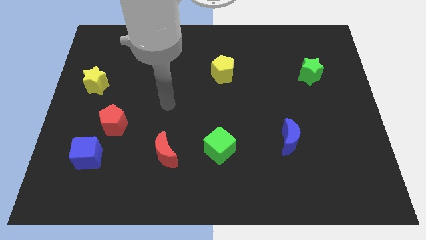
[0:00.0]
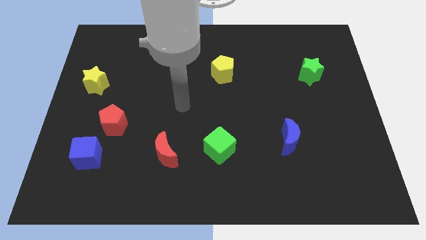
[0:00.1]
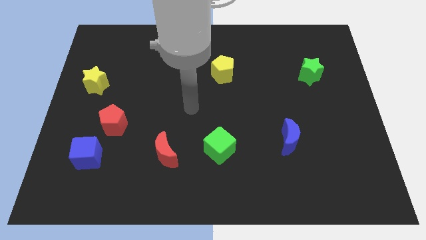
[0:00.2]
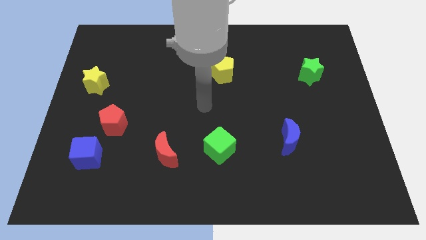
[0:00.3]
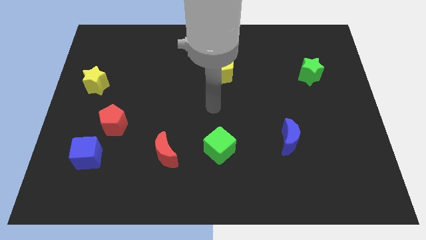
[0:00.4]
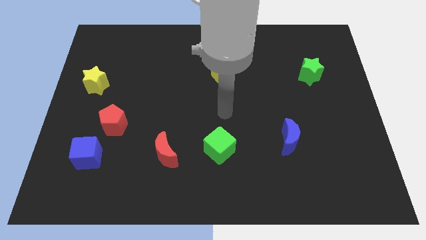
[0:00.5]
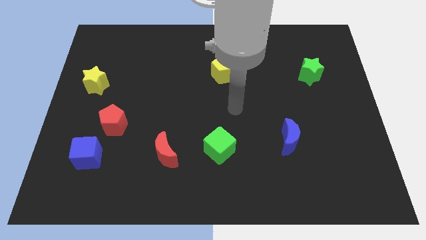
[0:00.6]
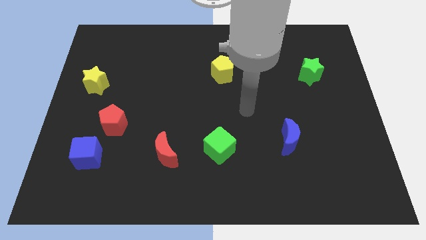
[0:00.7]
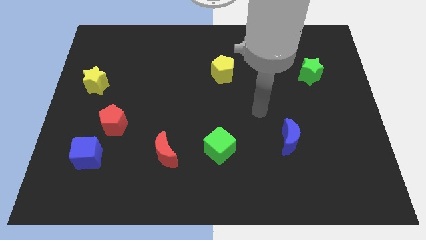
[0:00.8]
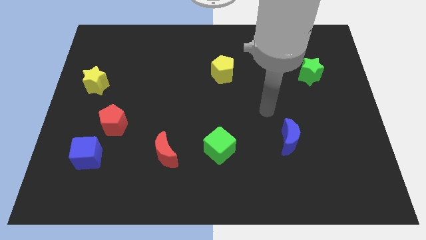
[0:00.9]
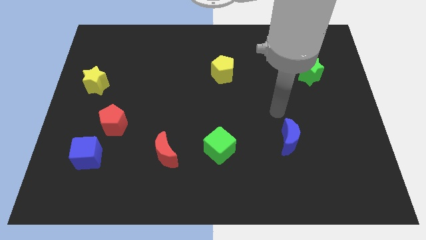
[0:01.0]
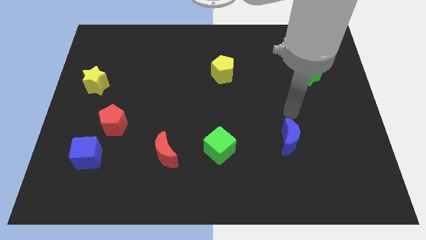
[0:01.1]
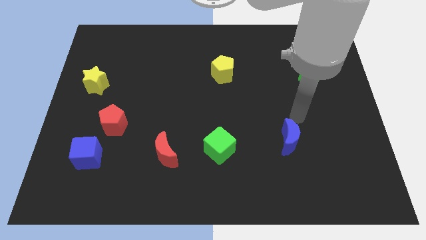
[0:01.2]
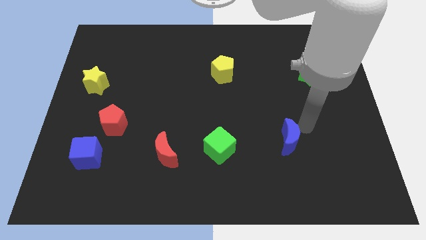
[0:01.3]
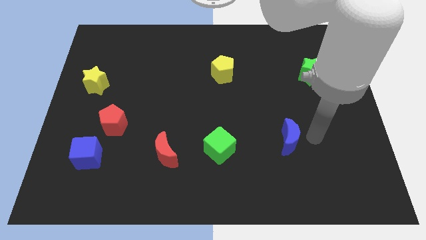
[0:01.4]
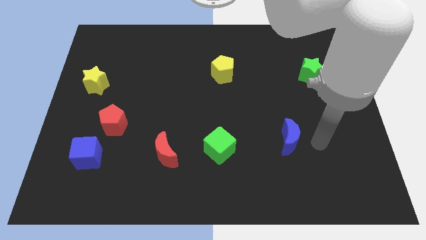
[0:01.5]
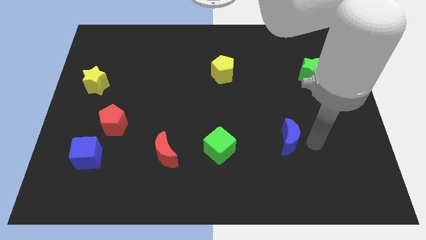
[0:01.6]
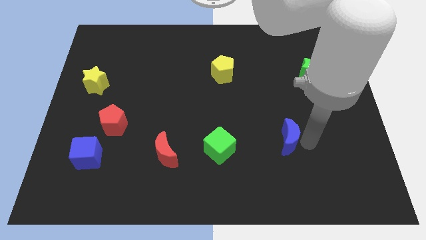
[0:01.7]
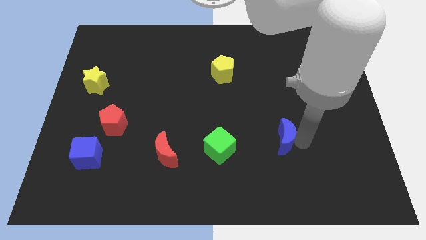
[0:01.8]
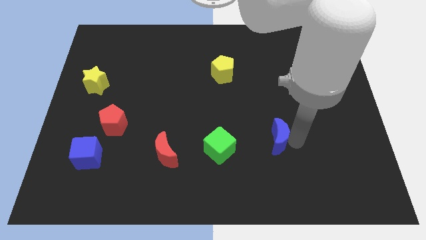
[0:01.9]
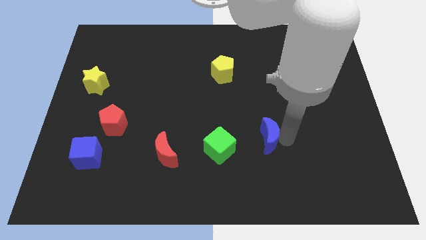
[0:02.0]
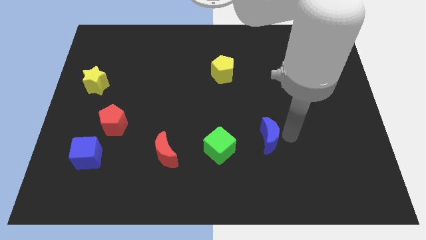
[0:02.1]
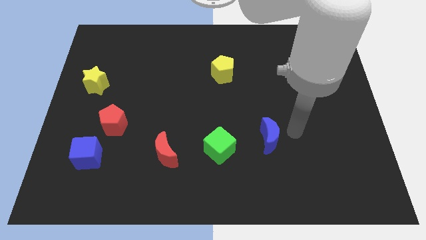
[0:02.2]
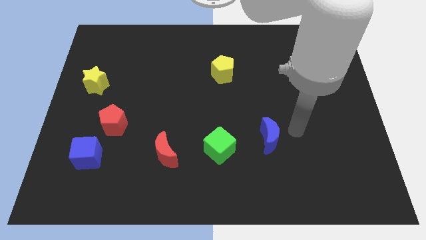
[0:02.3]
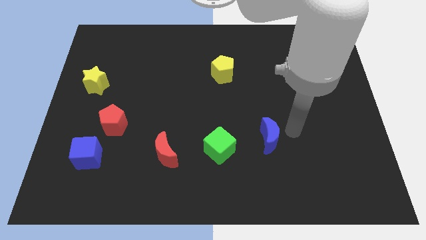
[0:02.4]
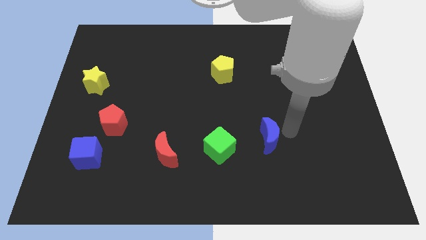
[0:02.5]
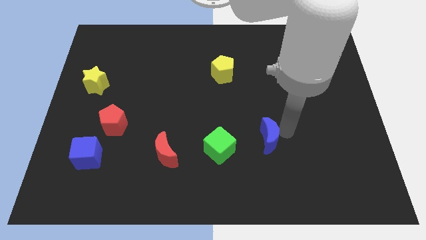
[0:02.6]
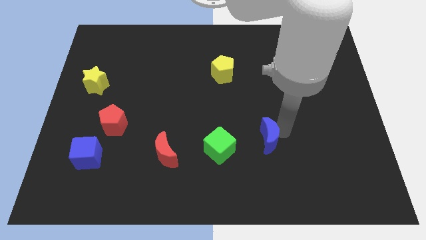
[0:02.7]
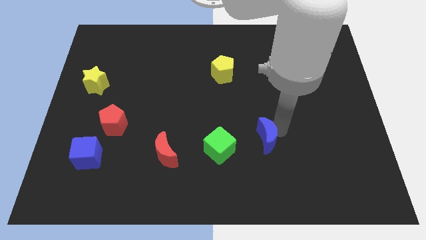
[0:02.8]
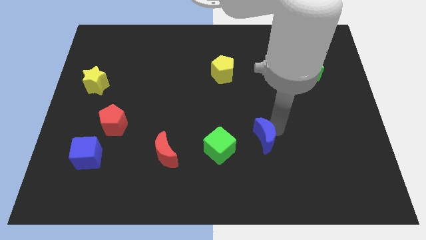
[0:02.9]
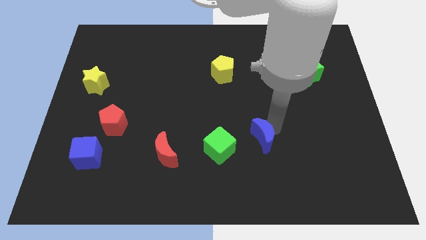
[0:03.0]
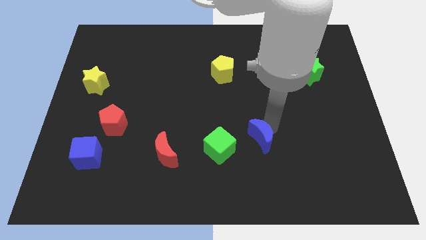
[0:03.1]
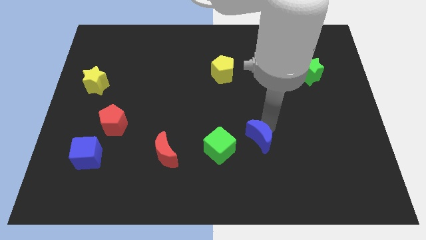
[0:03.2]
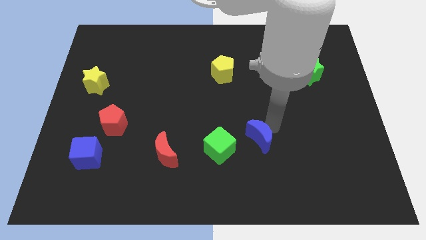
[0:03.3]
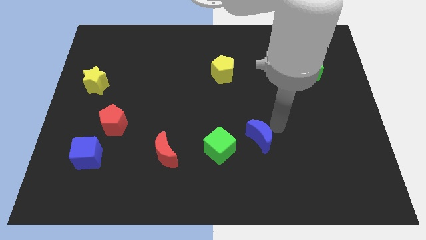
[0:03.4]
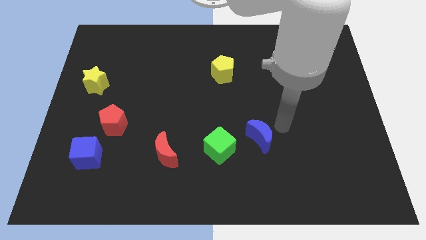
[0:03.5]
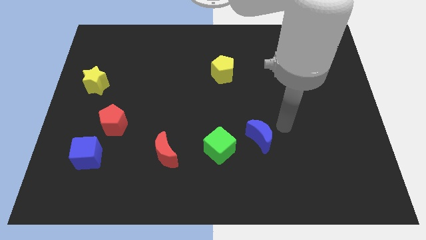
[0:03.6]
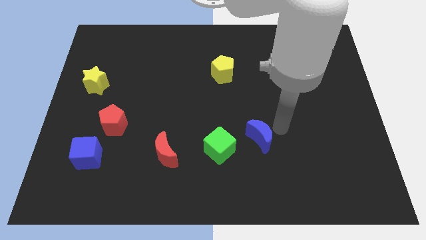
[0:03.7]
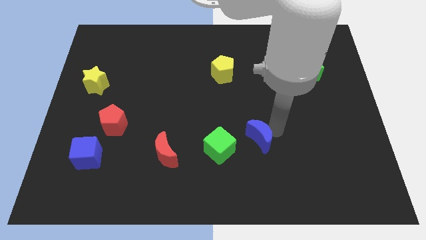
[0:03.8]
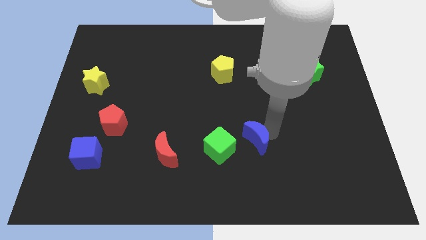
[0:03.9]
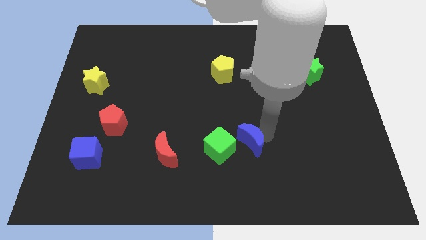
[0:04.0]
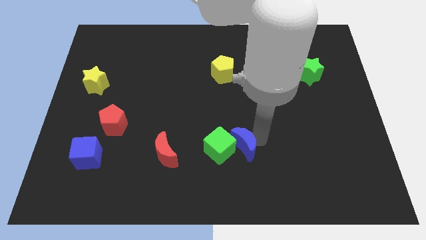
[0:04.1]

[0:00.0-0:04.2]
push the blue moon next to the green cube

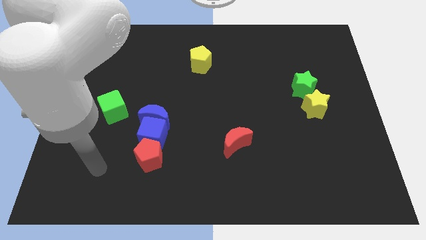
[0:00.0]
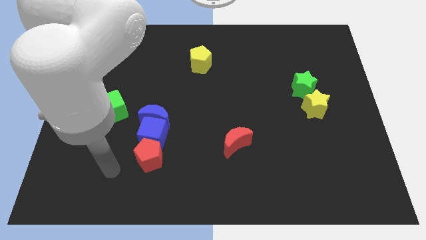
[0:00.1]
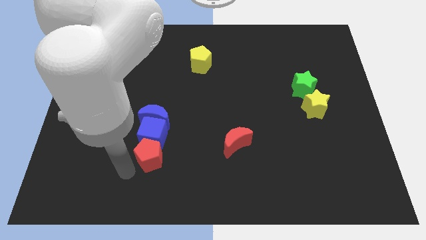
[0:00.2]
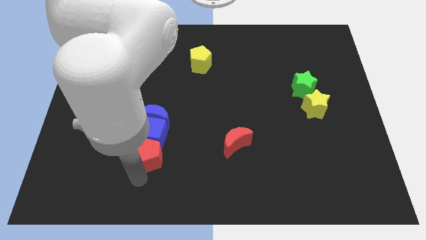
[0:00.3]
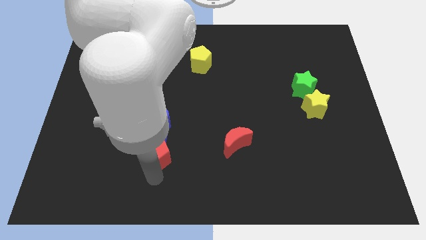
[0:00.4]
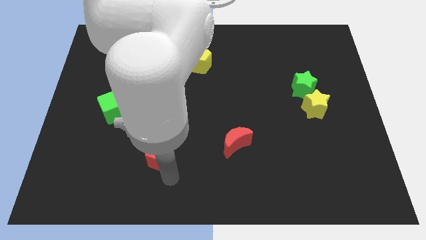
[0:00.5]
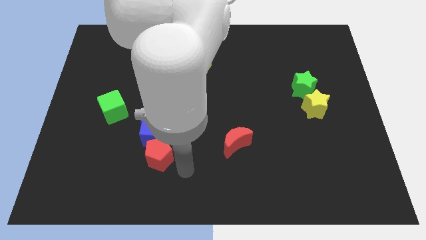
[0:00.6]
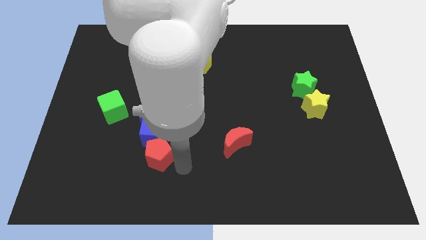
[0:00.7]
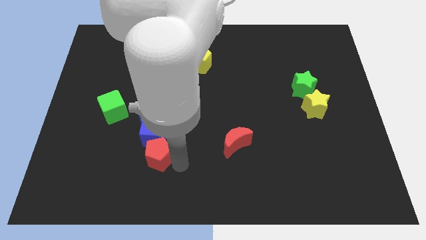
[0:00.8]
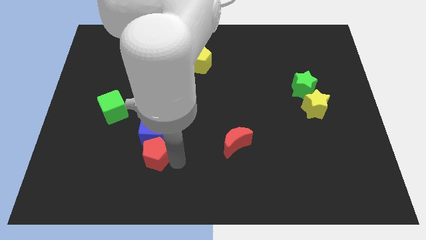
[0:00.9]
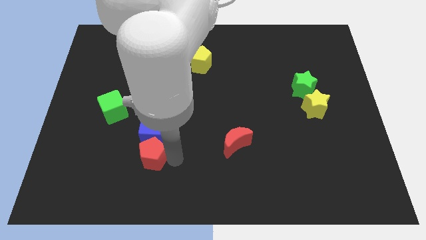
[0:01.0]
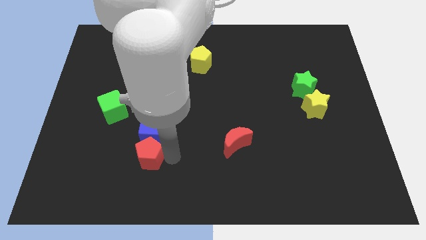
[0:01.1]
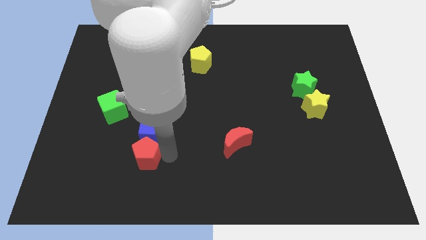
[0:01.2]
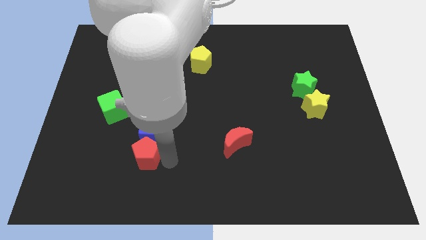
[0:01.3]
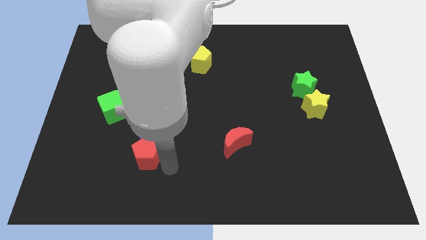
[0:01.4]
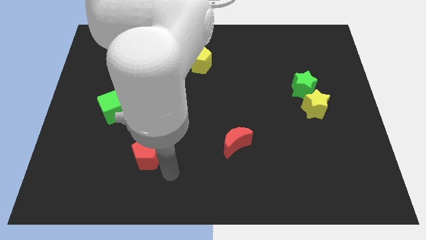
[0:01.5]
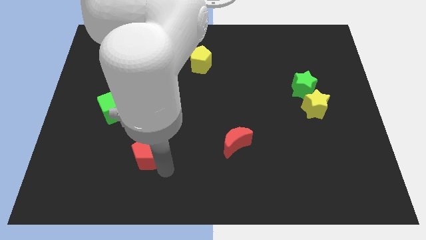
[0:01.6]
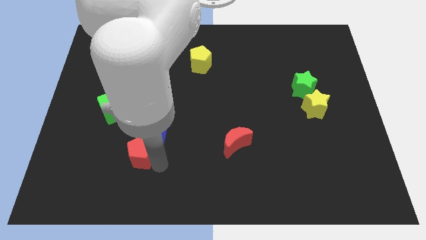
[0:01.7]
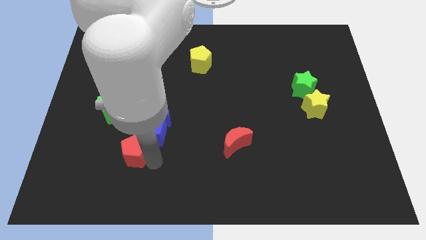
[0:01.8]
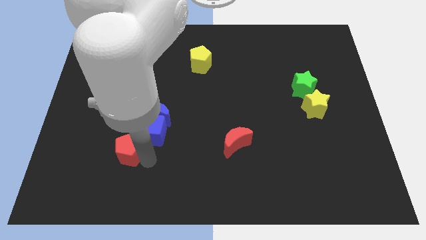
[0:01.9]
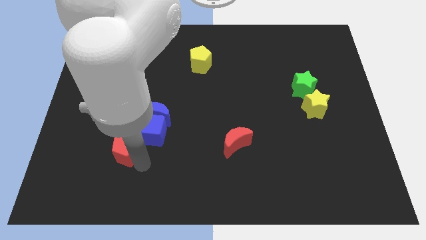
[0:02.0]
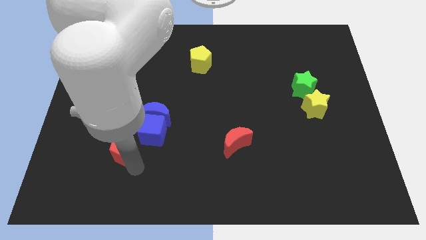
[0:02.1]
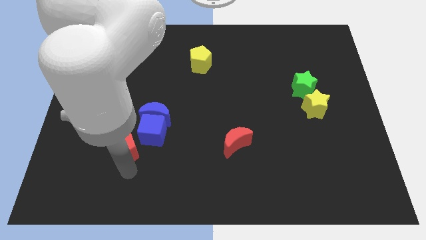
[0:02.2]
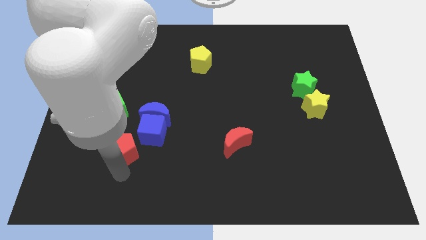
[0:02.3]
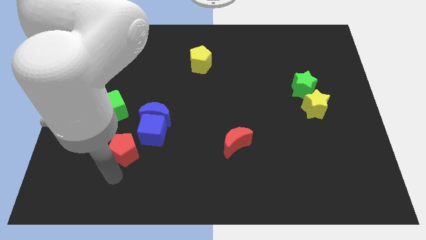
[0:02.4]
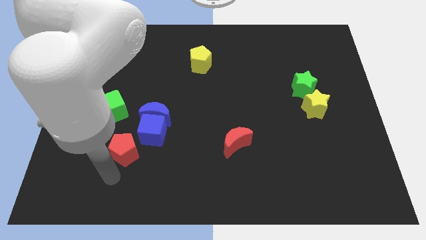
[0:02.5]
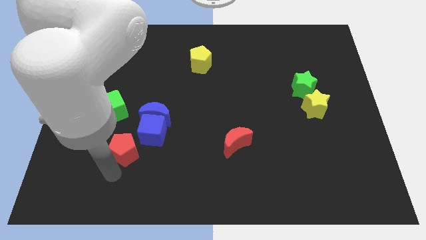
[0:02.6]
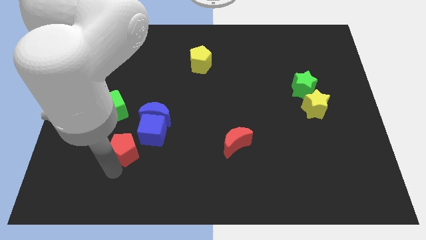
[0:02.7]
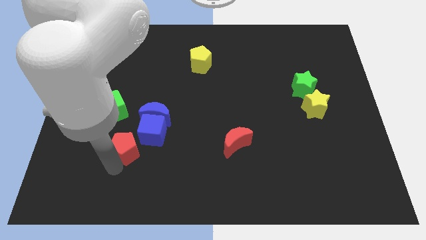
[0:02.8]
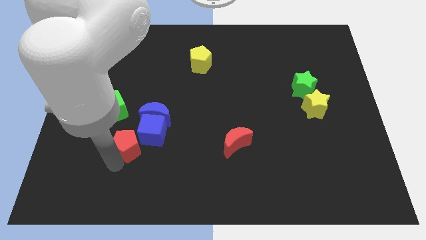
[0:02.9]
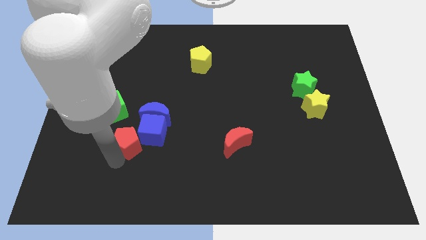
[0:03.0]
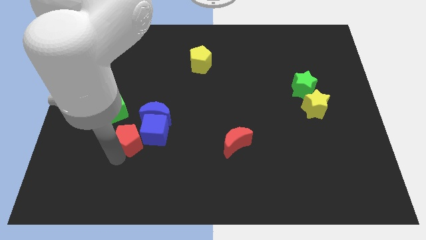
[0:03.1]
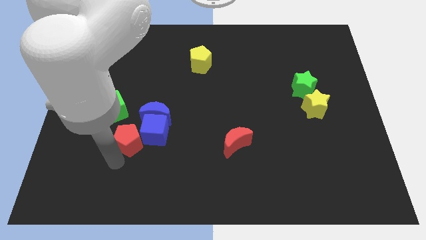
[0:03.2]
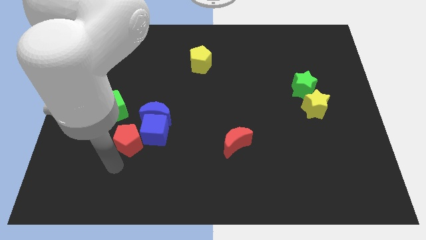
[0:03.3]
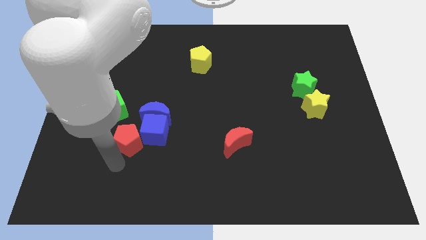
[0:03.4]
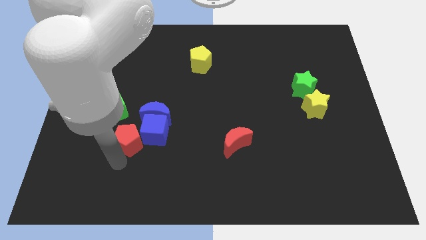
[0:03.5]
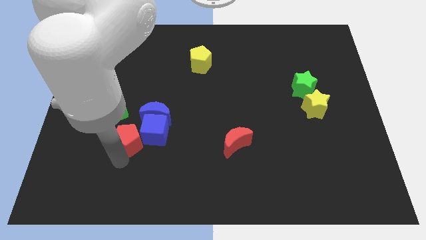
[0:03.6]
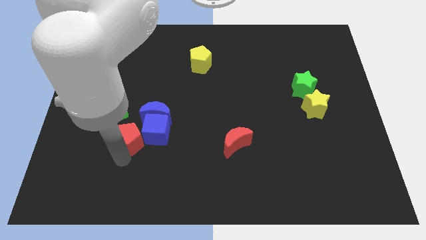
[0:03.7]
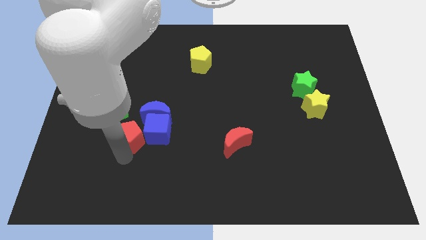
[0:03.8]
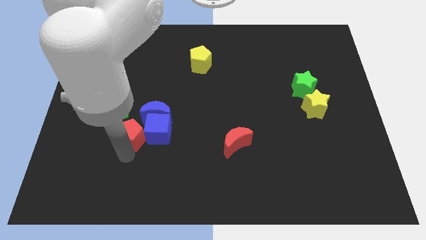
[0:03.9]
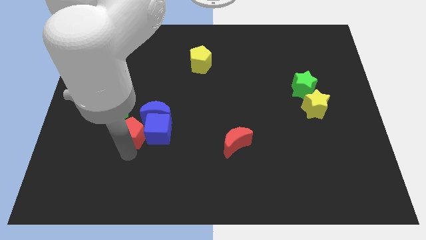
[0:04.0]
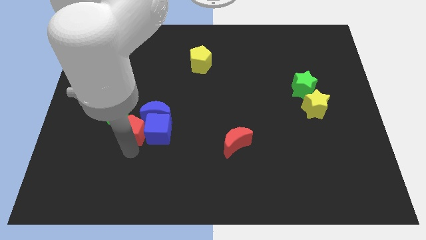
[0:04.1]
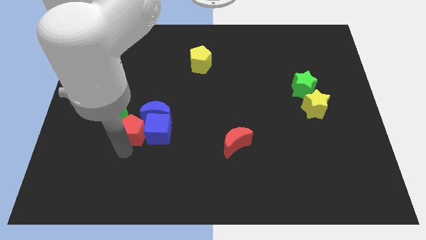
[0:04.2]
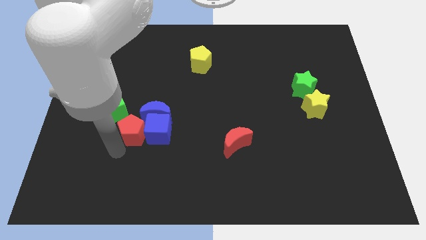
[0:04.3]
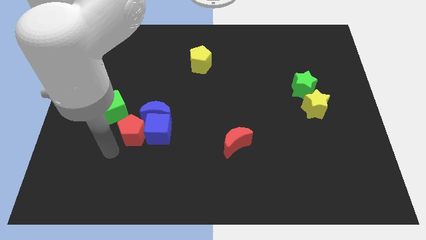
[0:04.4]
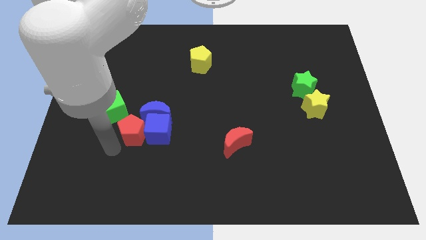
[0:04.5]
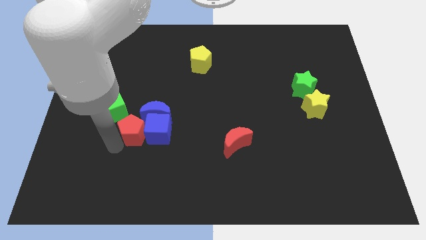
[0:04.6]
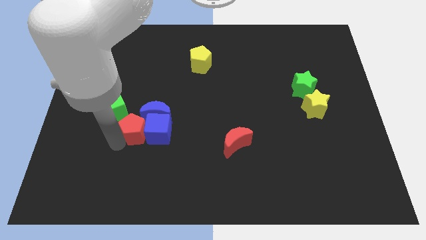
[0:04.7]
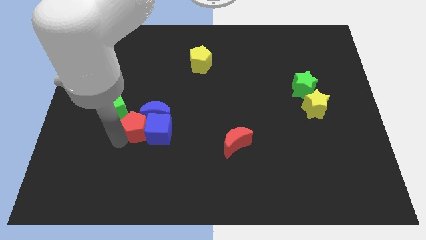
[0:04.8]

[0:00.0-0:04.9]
push the red pentagon next to the blue moon
